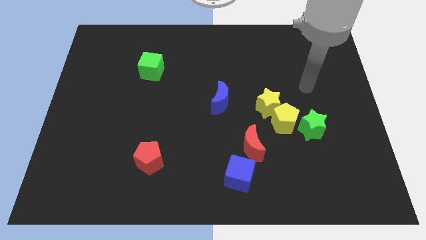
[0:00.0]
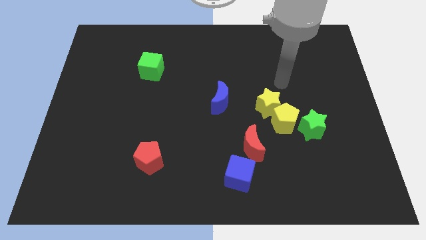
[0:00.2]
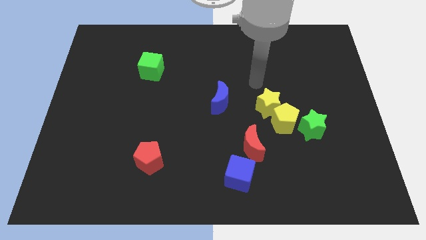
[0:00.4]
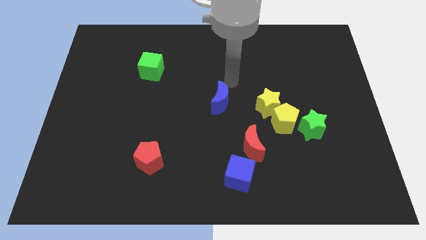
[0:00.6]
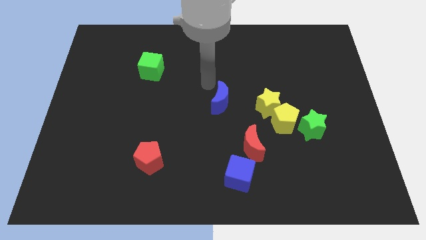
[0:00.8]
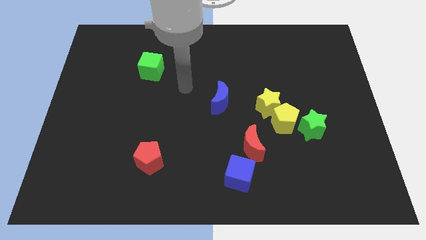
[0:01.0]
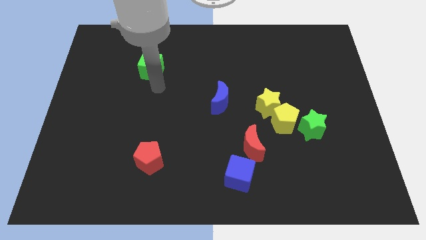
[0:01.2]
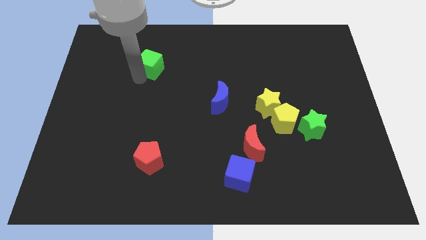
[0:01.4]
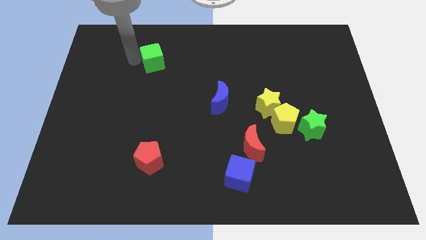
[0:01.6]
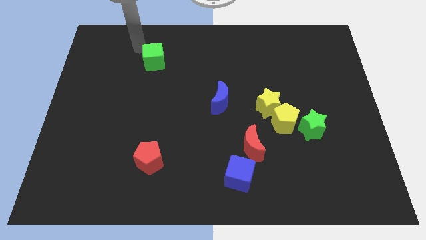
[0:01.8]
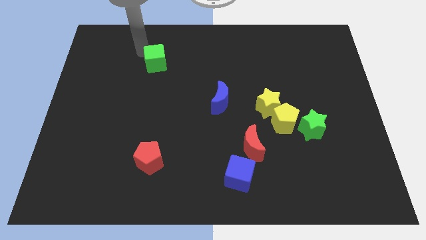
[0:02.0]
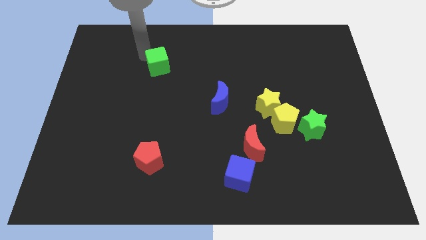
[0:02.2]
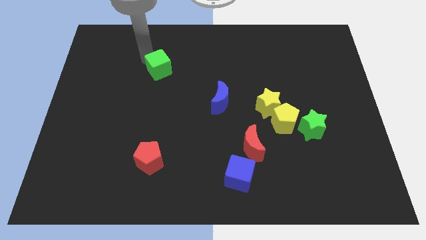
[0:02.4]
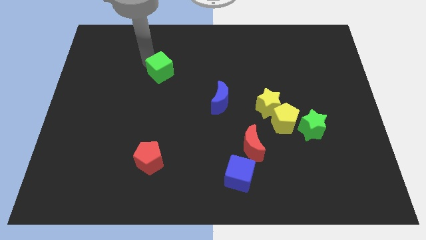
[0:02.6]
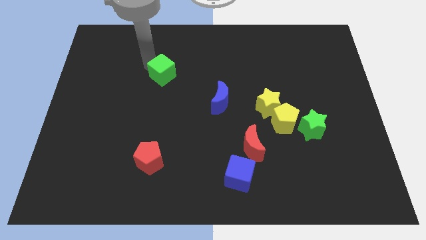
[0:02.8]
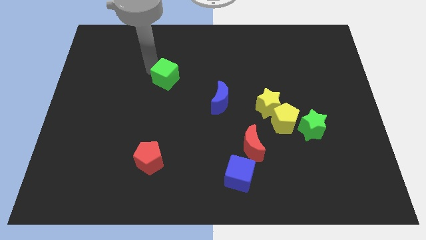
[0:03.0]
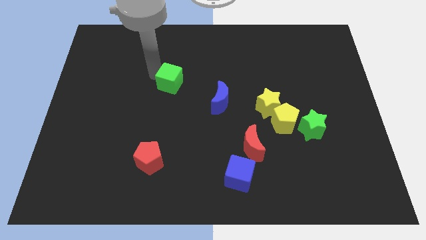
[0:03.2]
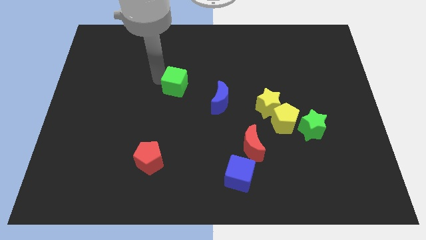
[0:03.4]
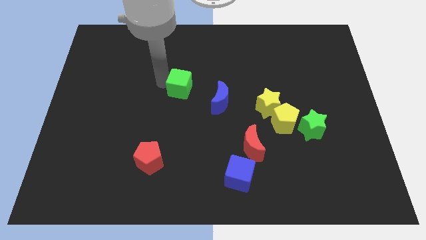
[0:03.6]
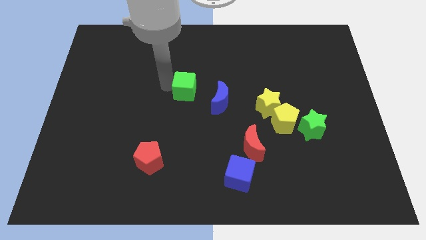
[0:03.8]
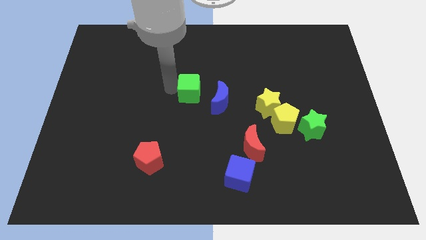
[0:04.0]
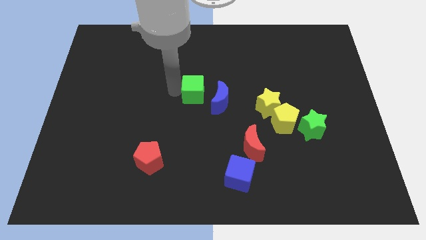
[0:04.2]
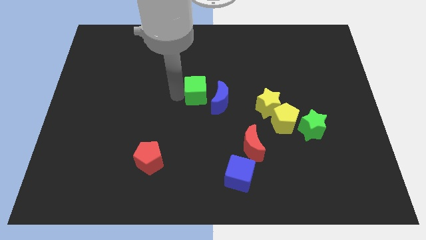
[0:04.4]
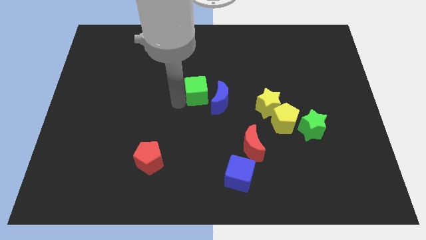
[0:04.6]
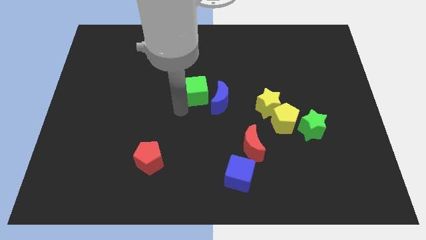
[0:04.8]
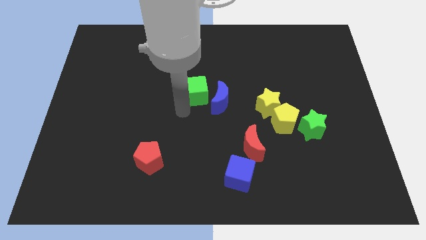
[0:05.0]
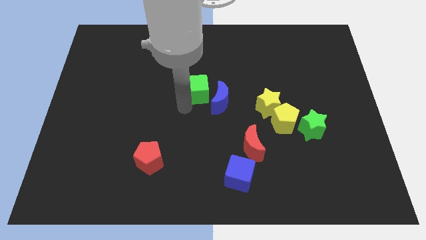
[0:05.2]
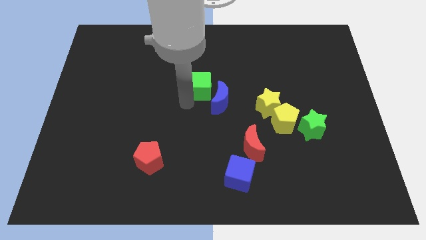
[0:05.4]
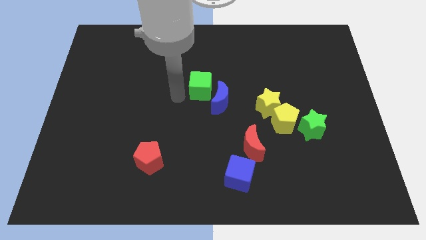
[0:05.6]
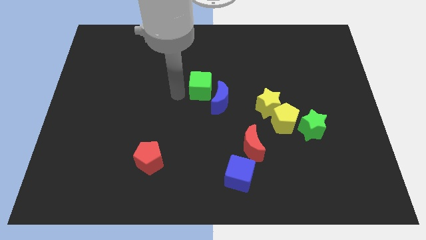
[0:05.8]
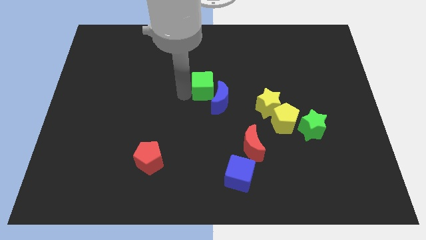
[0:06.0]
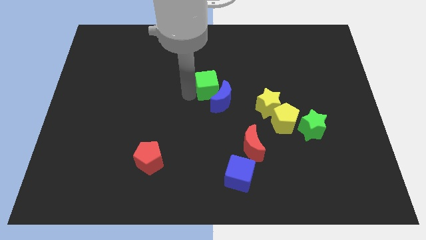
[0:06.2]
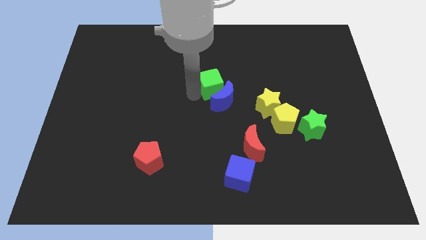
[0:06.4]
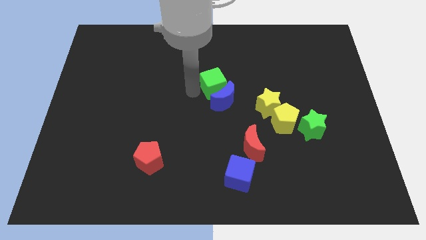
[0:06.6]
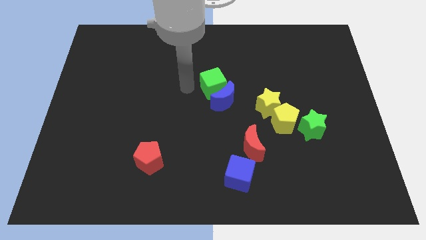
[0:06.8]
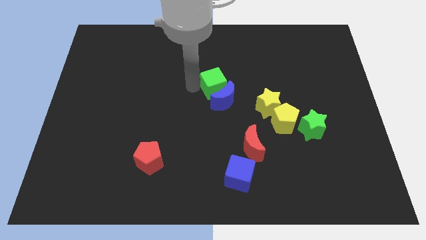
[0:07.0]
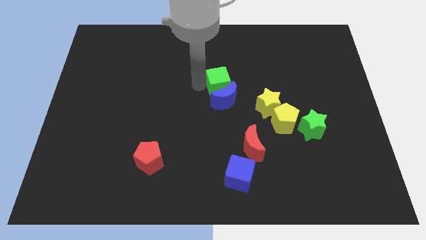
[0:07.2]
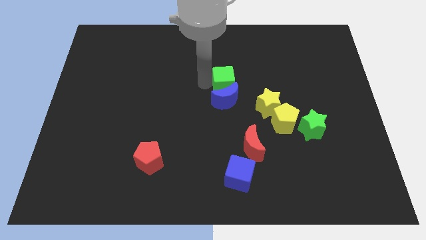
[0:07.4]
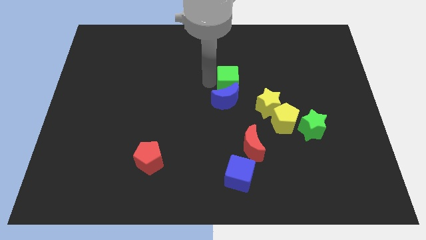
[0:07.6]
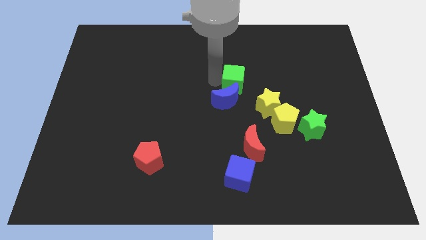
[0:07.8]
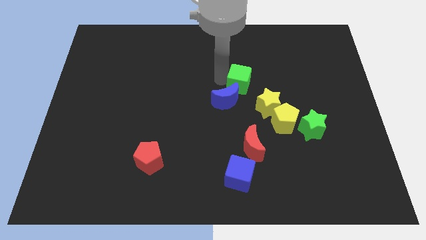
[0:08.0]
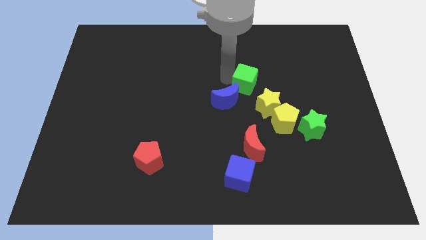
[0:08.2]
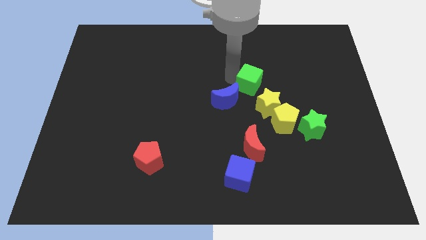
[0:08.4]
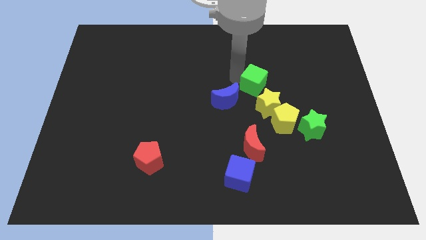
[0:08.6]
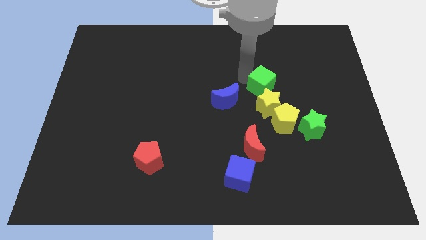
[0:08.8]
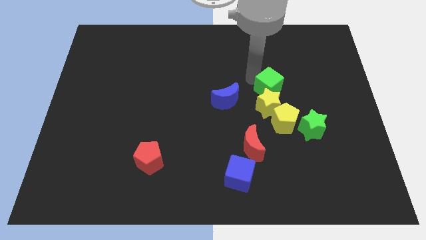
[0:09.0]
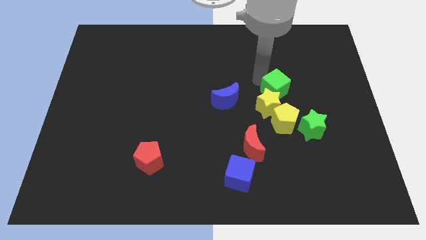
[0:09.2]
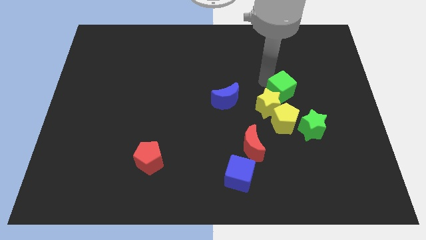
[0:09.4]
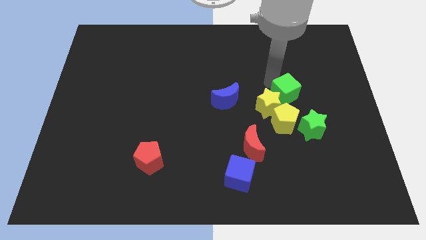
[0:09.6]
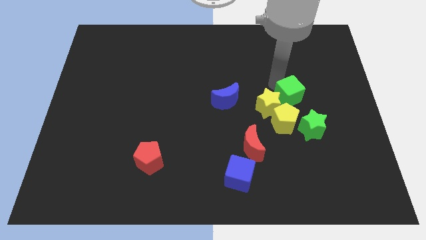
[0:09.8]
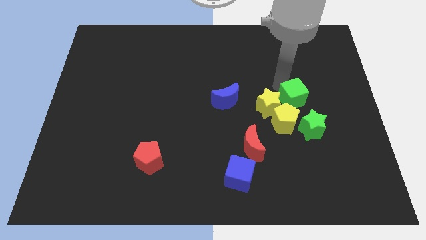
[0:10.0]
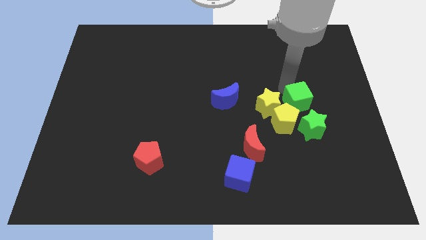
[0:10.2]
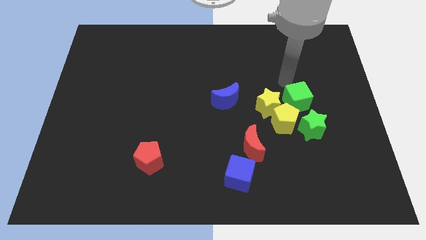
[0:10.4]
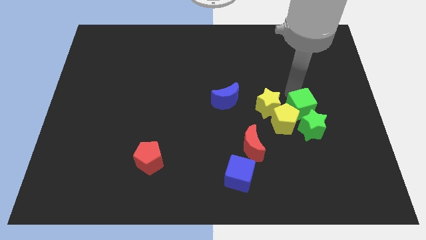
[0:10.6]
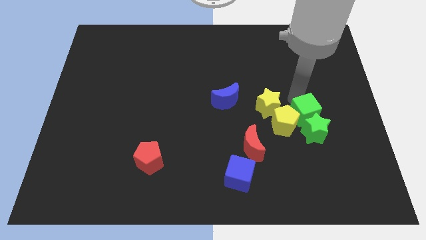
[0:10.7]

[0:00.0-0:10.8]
move the green cube close to the green star

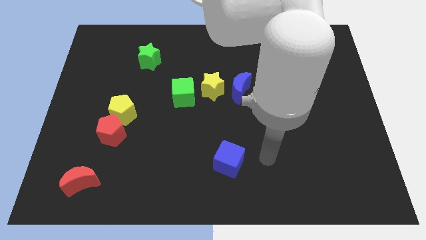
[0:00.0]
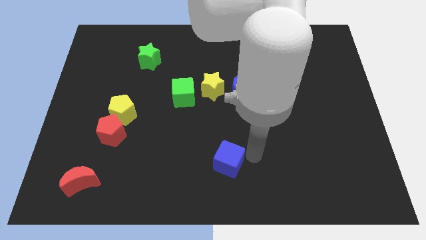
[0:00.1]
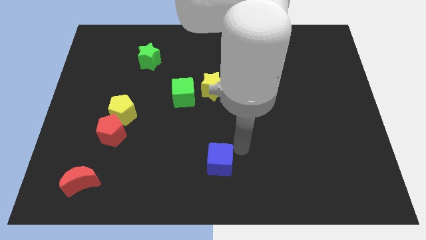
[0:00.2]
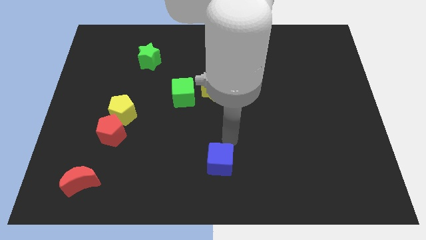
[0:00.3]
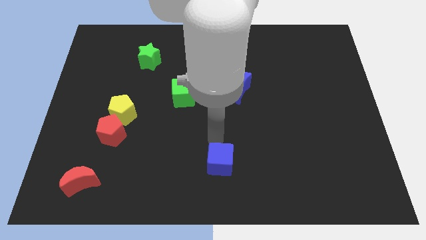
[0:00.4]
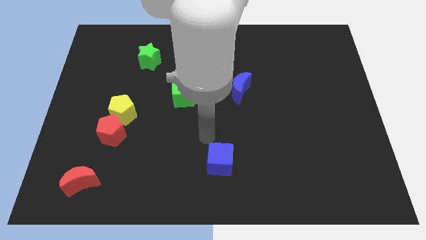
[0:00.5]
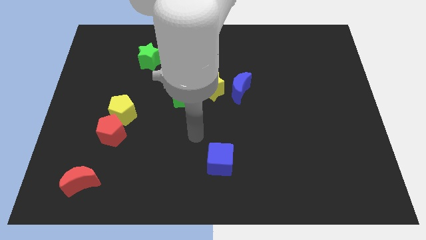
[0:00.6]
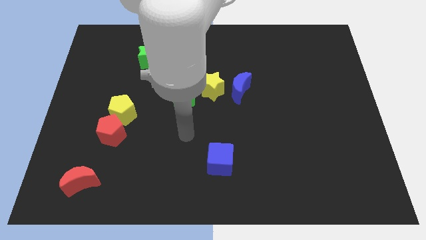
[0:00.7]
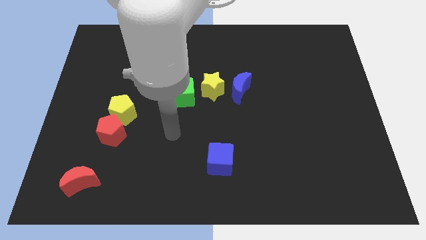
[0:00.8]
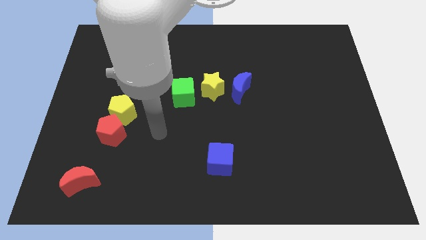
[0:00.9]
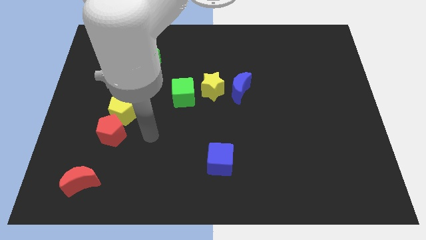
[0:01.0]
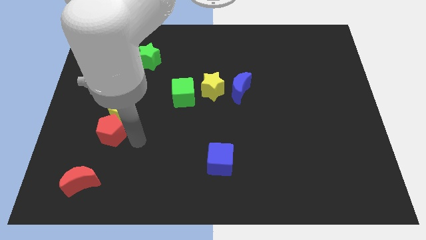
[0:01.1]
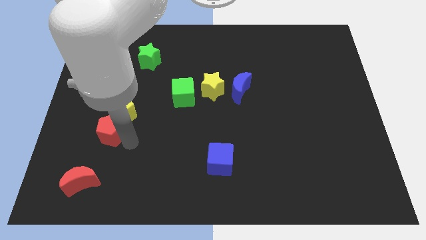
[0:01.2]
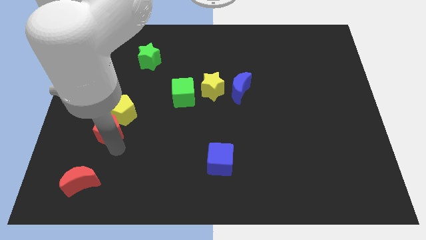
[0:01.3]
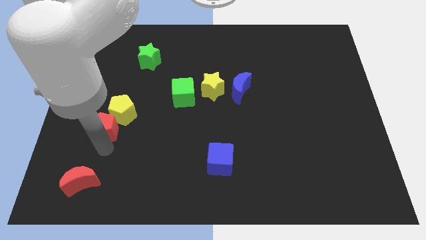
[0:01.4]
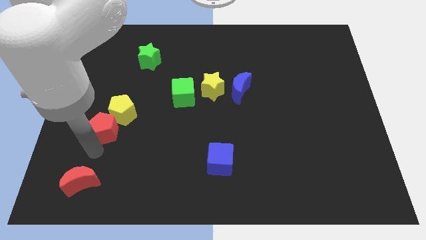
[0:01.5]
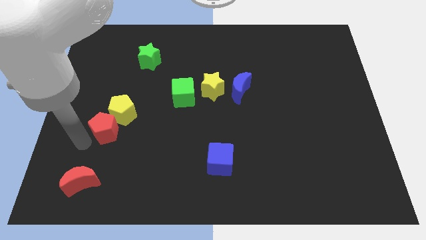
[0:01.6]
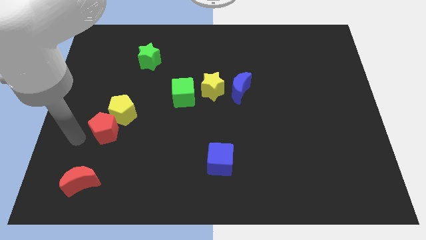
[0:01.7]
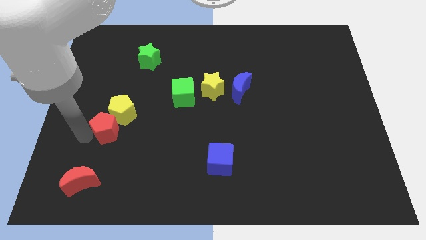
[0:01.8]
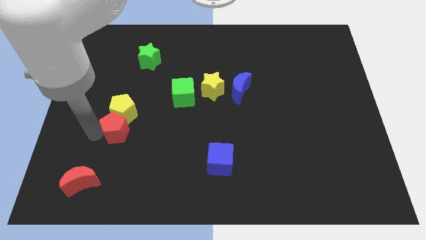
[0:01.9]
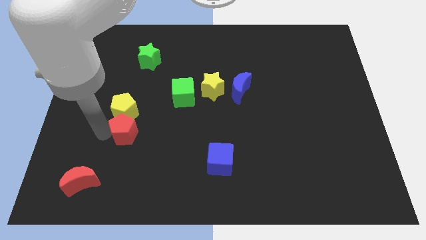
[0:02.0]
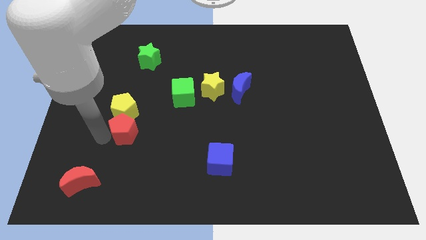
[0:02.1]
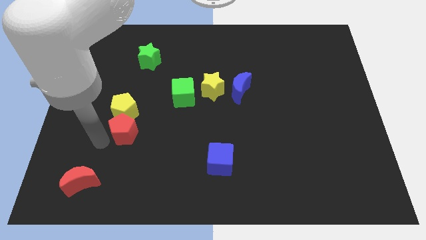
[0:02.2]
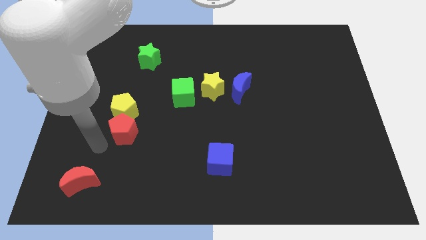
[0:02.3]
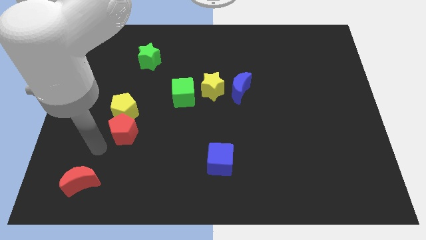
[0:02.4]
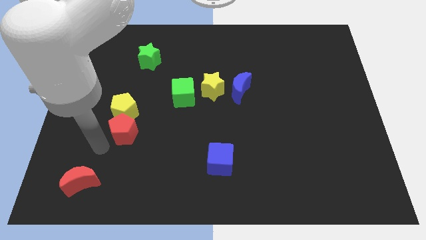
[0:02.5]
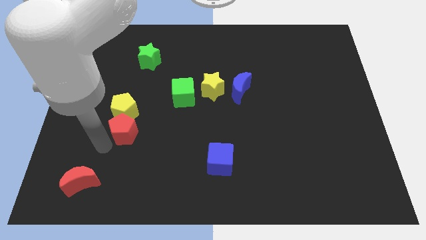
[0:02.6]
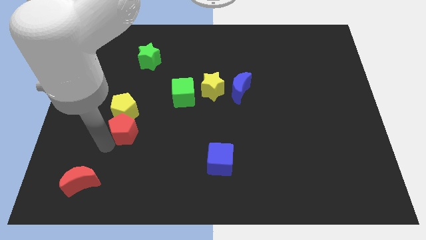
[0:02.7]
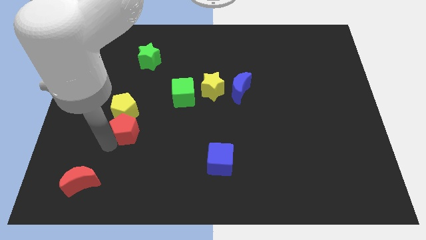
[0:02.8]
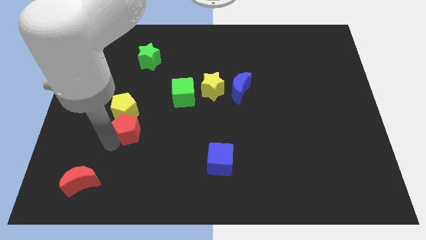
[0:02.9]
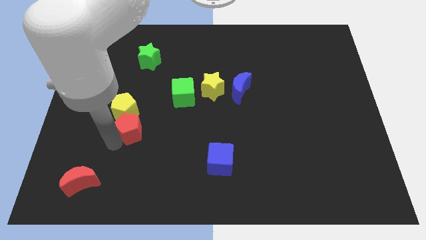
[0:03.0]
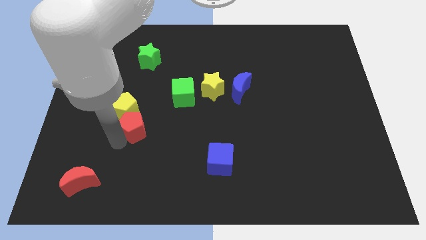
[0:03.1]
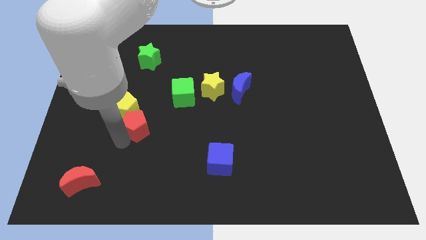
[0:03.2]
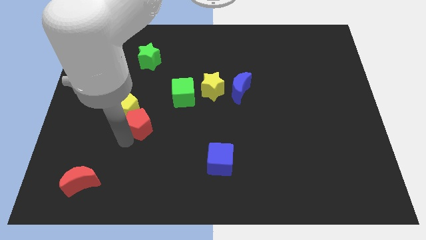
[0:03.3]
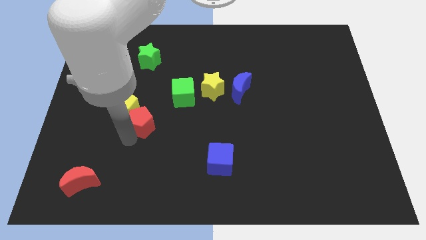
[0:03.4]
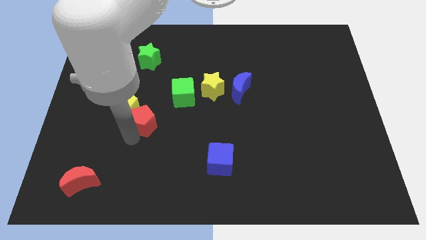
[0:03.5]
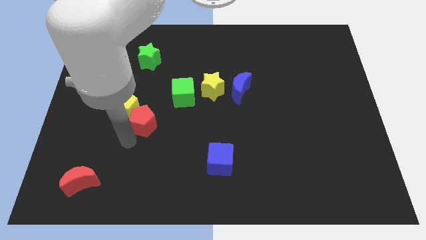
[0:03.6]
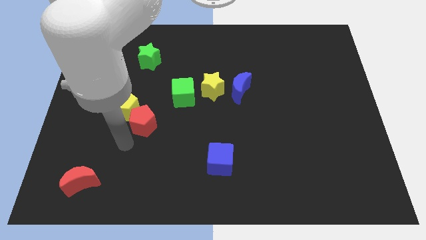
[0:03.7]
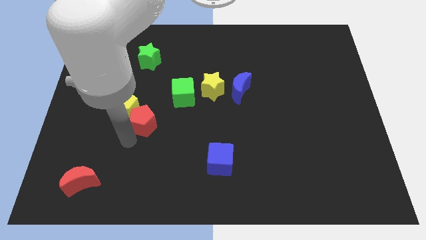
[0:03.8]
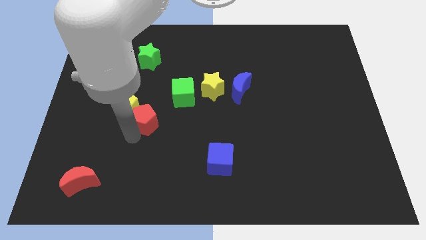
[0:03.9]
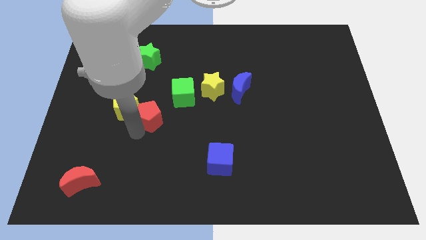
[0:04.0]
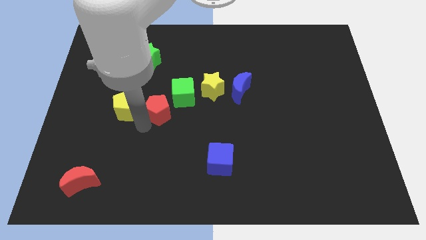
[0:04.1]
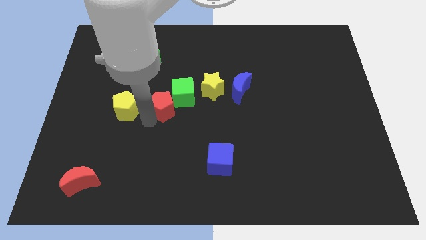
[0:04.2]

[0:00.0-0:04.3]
slide the red pentagon close to the green cube
